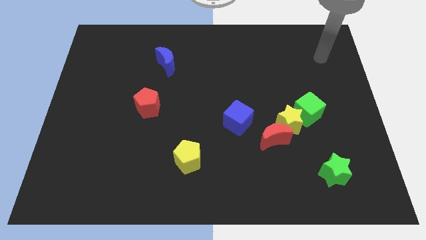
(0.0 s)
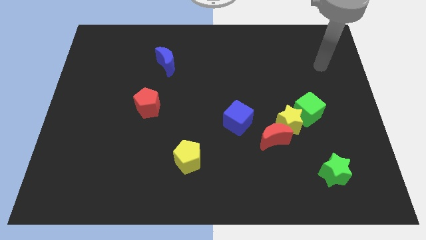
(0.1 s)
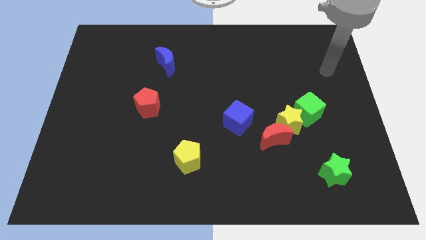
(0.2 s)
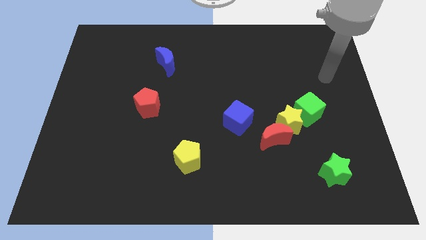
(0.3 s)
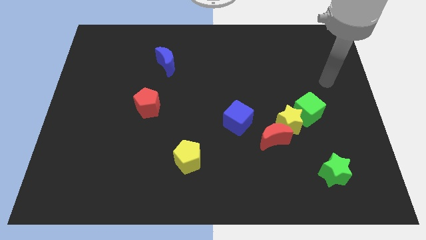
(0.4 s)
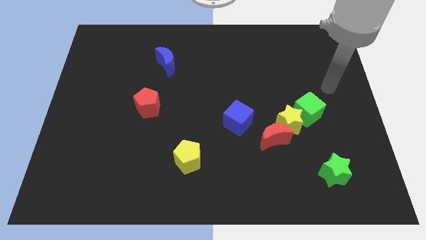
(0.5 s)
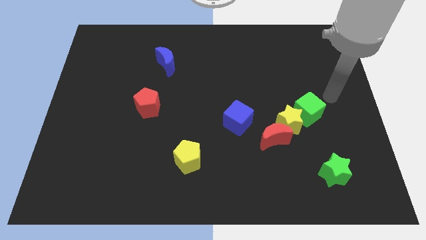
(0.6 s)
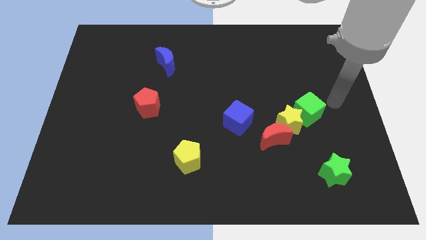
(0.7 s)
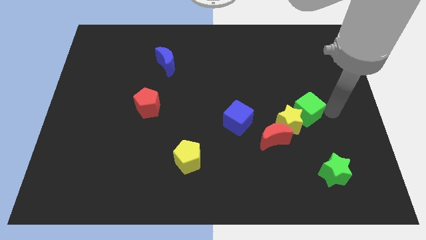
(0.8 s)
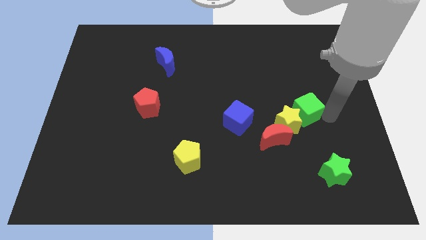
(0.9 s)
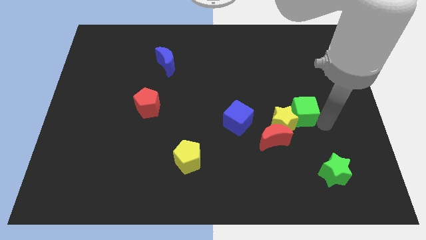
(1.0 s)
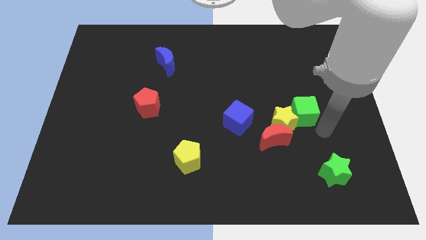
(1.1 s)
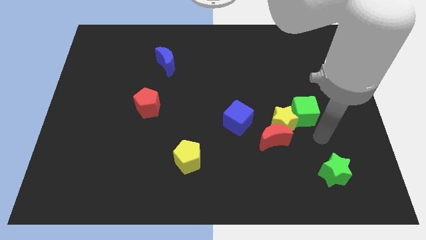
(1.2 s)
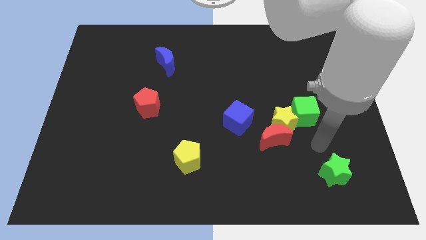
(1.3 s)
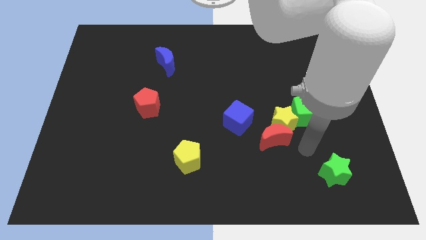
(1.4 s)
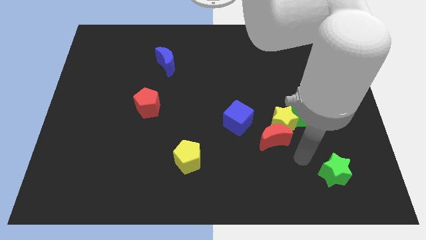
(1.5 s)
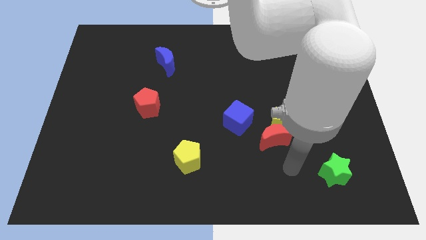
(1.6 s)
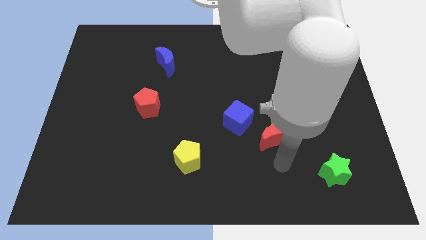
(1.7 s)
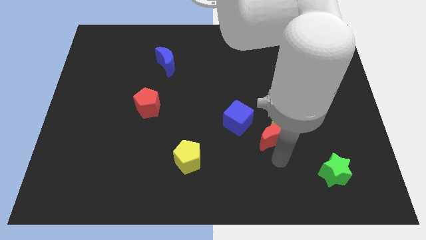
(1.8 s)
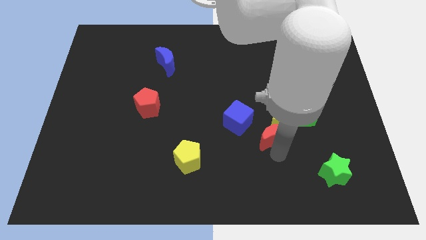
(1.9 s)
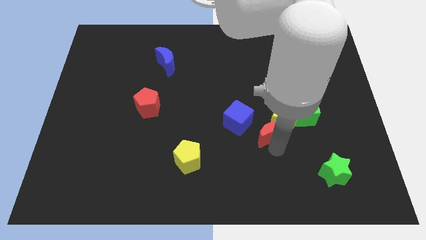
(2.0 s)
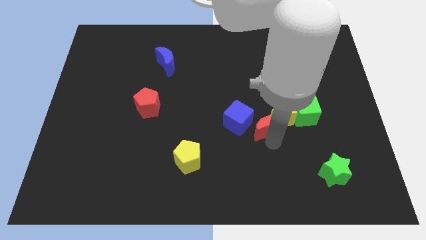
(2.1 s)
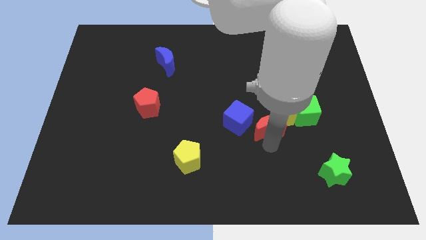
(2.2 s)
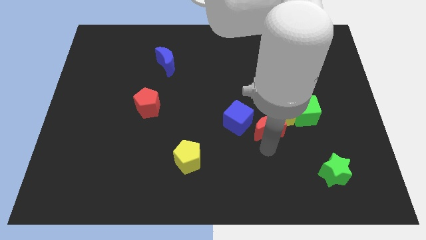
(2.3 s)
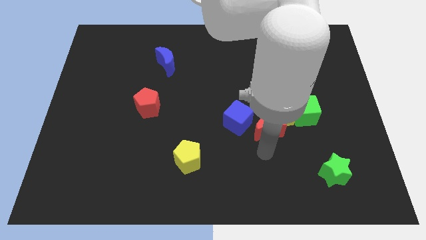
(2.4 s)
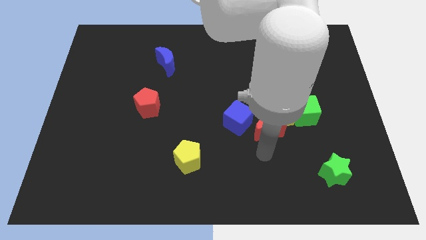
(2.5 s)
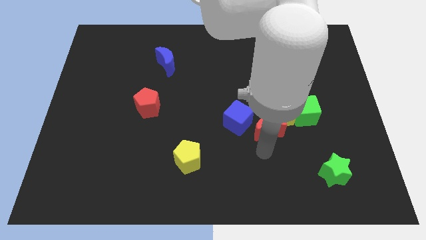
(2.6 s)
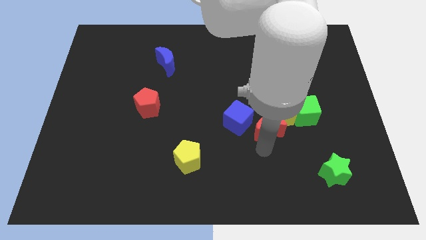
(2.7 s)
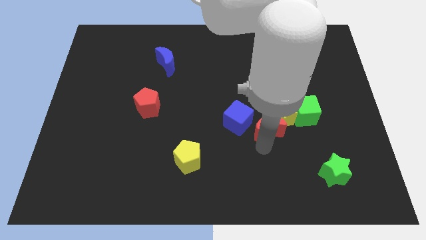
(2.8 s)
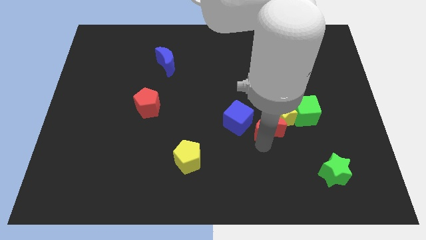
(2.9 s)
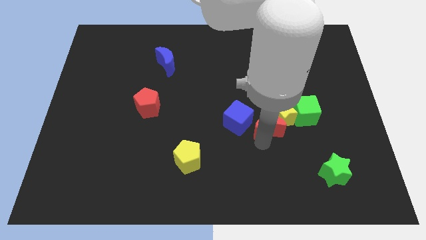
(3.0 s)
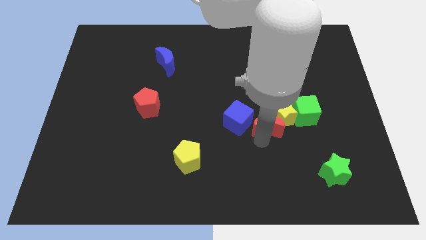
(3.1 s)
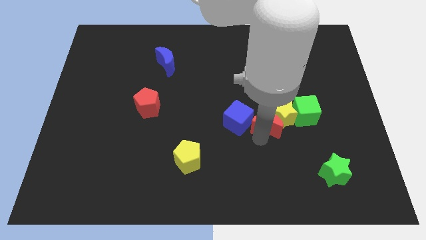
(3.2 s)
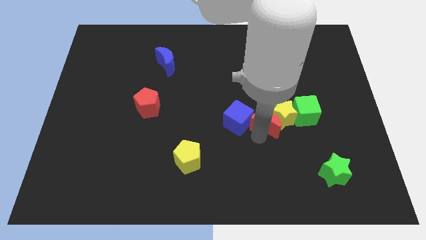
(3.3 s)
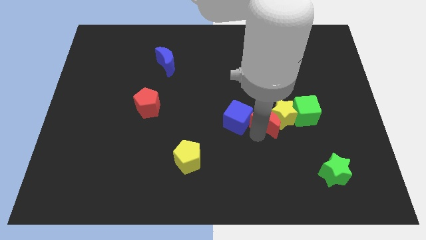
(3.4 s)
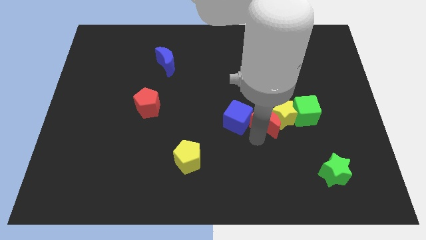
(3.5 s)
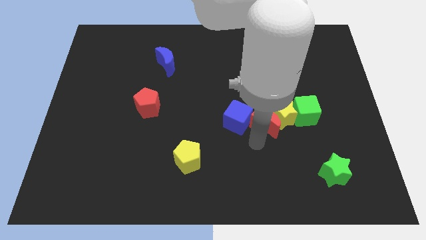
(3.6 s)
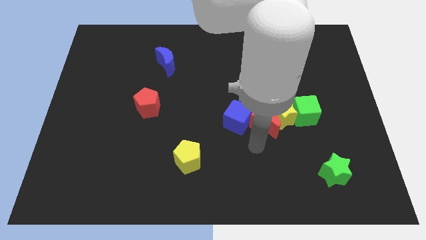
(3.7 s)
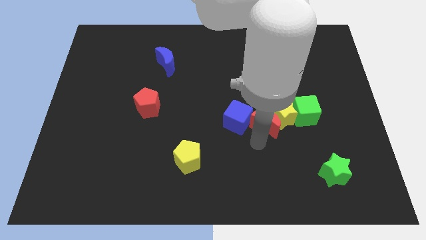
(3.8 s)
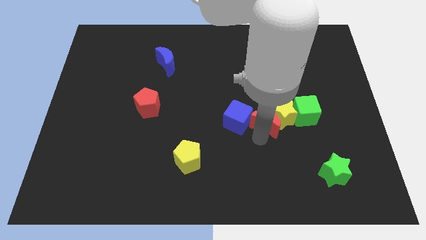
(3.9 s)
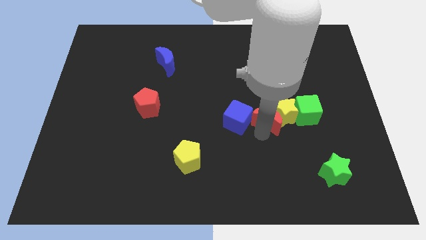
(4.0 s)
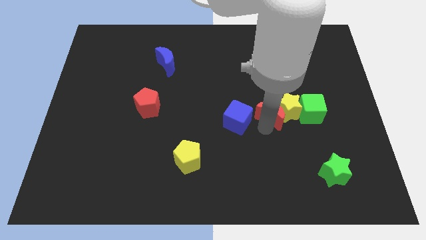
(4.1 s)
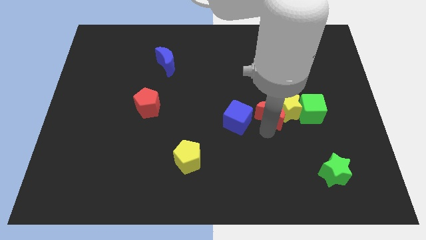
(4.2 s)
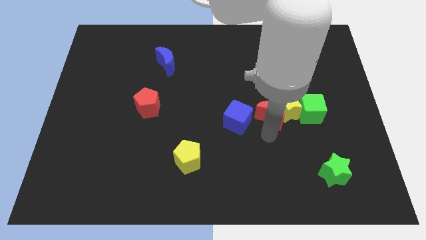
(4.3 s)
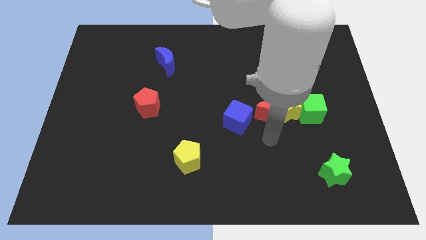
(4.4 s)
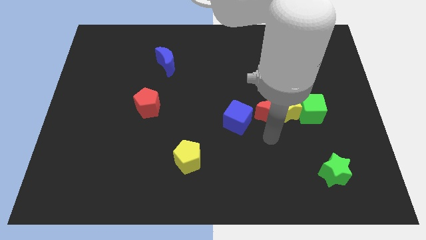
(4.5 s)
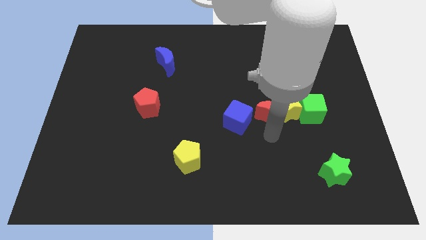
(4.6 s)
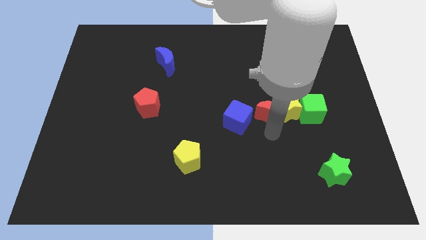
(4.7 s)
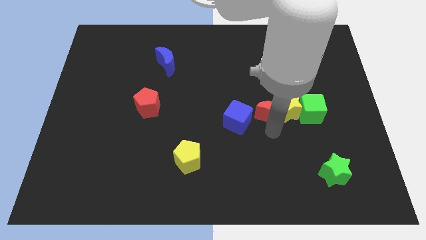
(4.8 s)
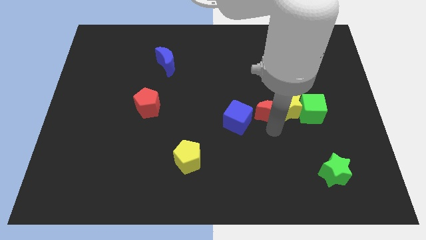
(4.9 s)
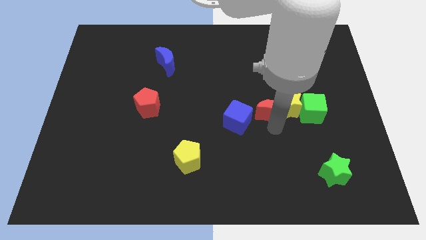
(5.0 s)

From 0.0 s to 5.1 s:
slide the red moon up a little bit

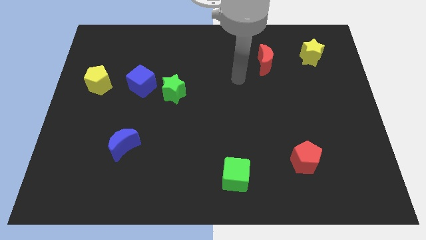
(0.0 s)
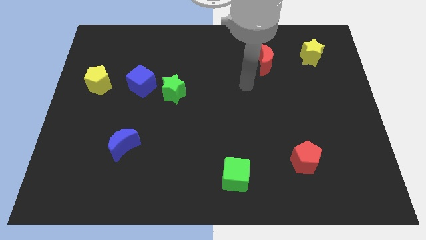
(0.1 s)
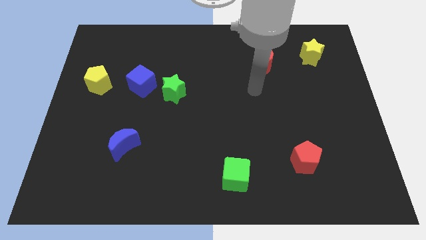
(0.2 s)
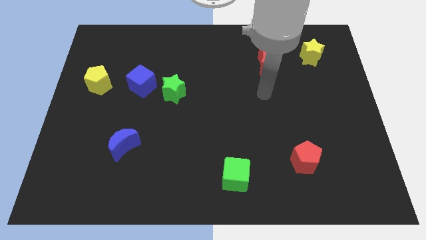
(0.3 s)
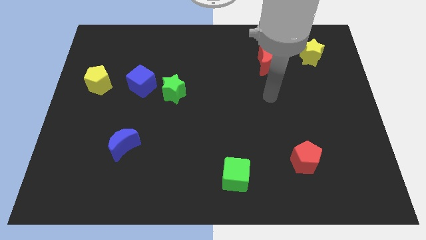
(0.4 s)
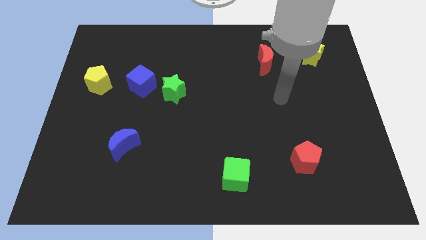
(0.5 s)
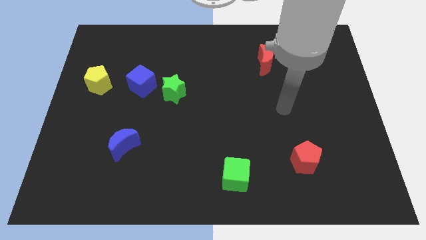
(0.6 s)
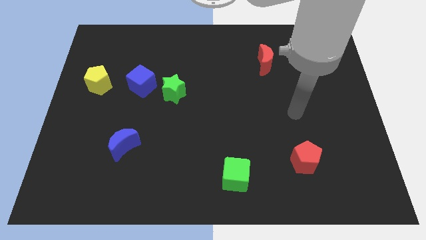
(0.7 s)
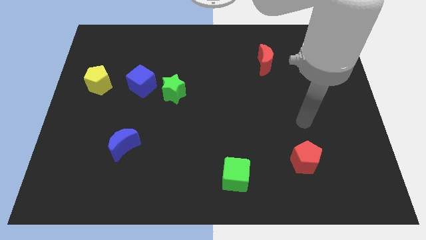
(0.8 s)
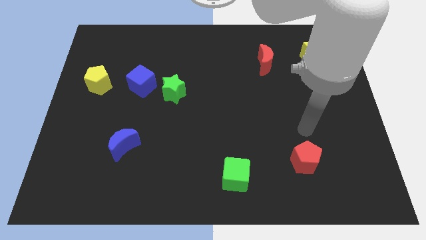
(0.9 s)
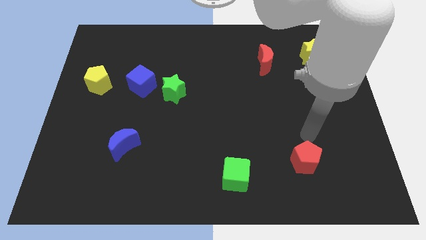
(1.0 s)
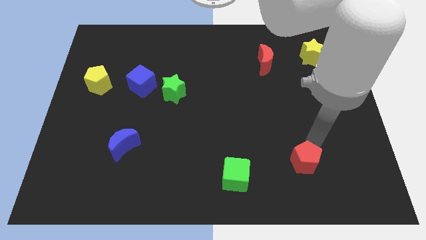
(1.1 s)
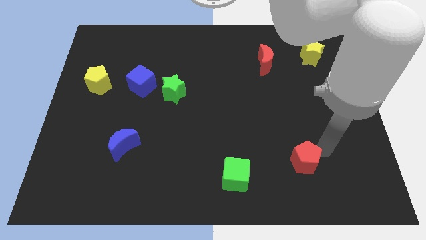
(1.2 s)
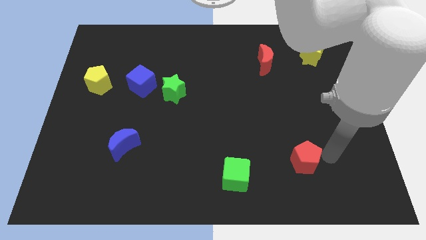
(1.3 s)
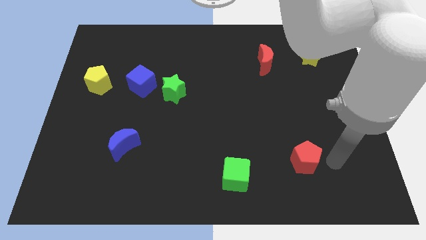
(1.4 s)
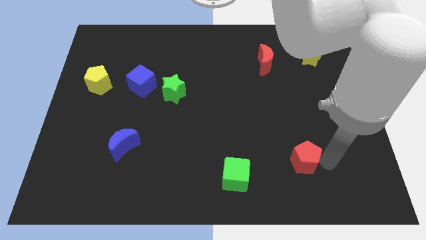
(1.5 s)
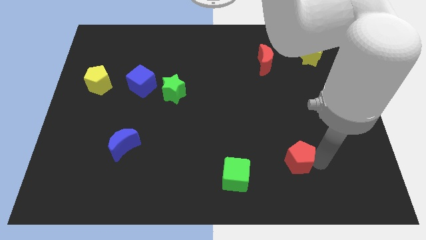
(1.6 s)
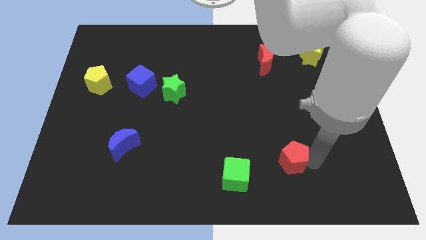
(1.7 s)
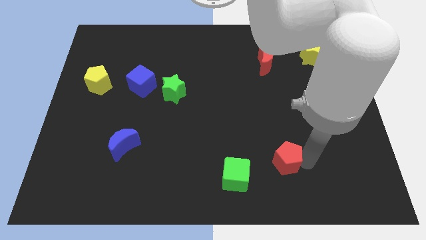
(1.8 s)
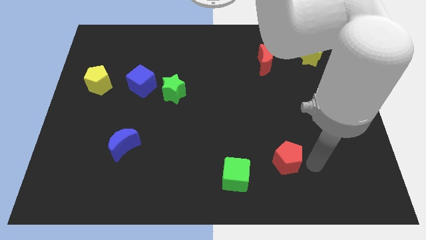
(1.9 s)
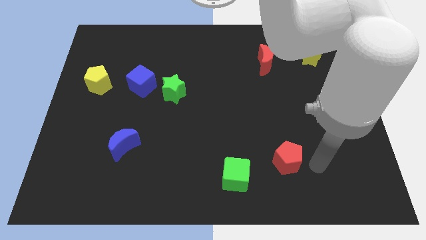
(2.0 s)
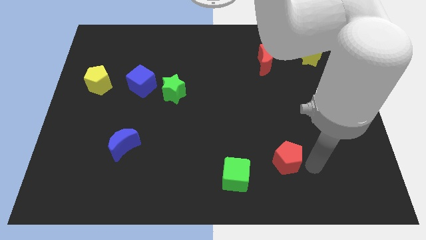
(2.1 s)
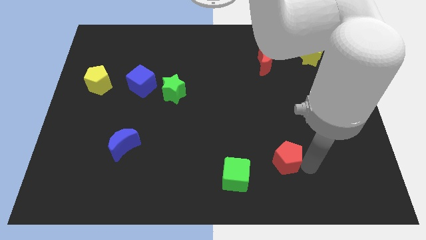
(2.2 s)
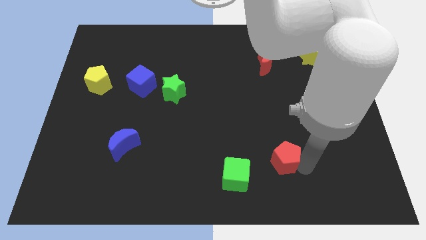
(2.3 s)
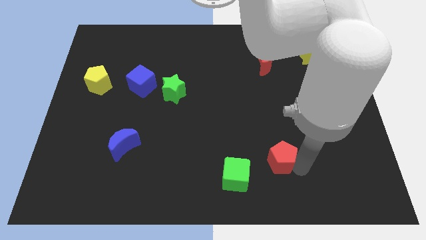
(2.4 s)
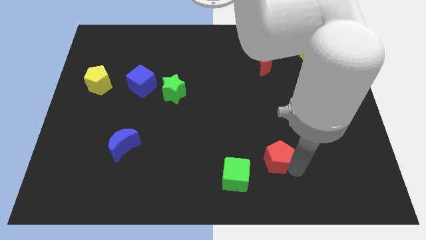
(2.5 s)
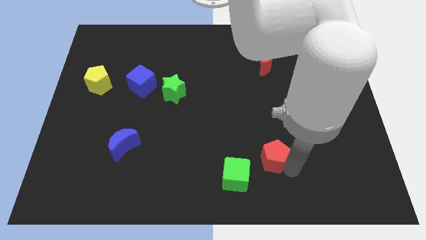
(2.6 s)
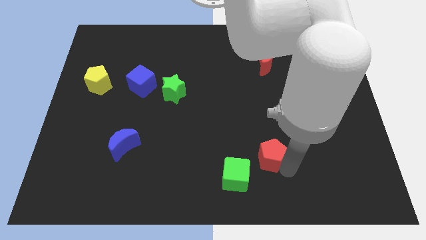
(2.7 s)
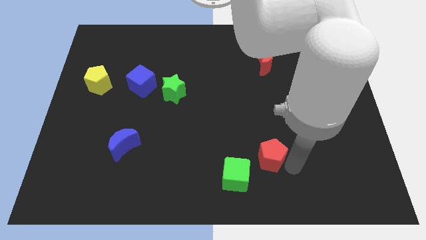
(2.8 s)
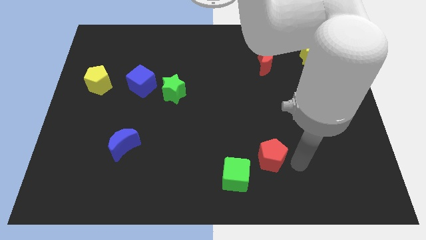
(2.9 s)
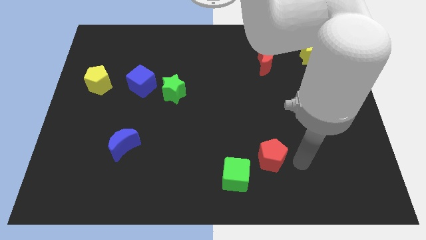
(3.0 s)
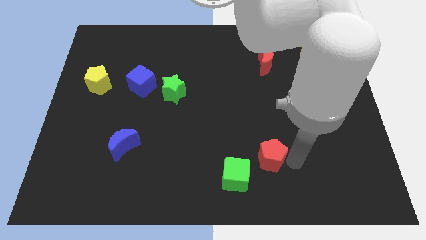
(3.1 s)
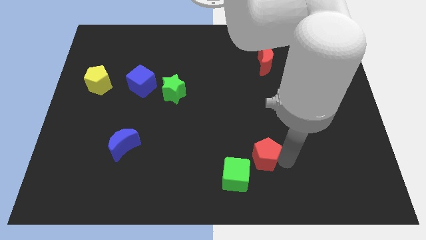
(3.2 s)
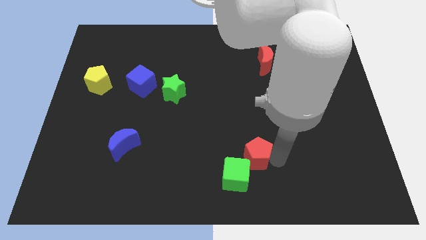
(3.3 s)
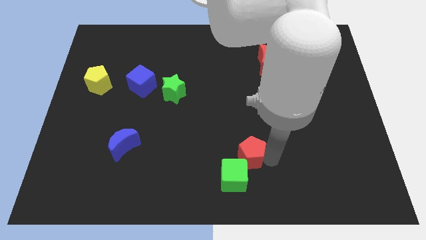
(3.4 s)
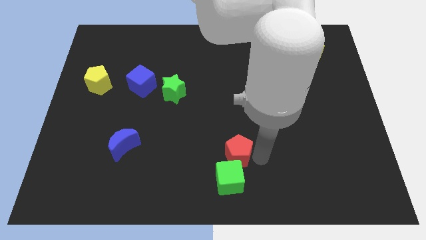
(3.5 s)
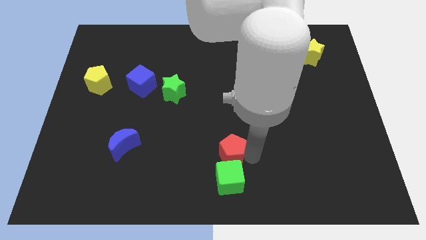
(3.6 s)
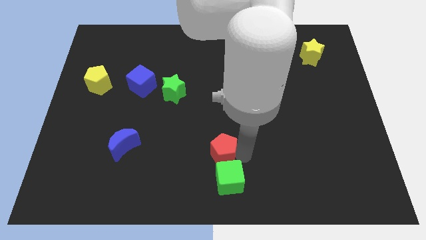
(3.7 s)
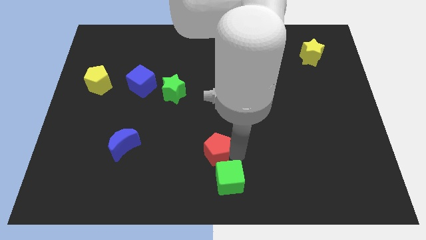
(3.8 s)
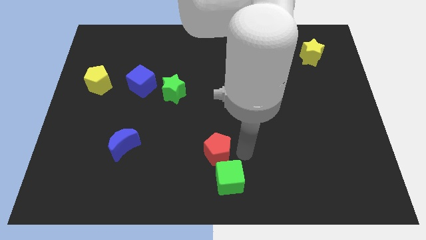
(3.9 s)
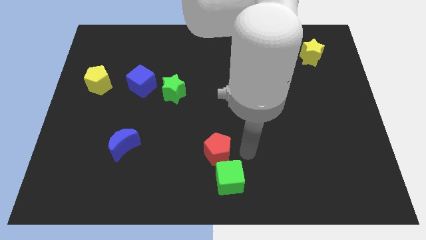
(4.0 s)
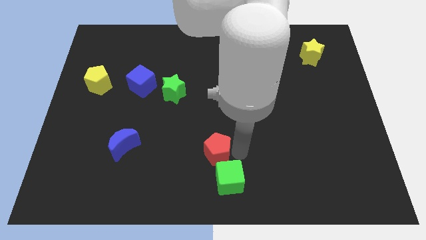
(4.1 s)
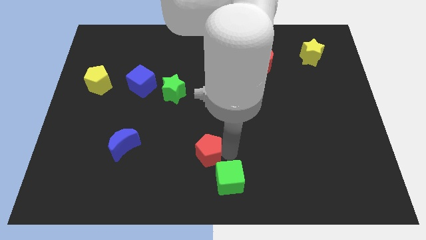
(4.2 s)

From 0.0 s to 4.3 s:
move the red pentagon to the left
